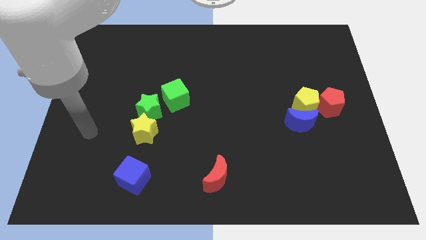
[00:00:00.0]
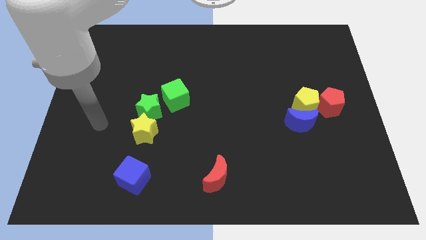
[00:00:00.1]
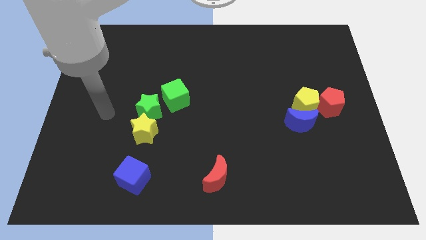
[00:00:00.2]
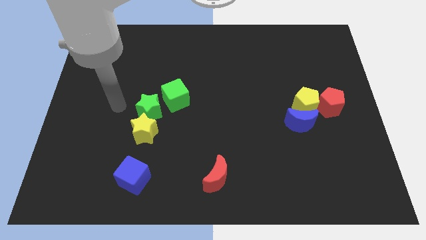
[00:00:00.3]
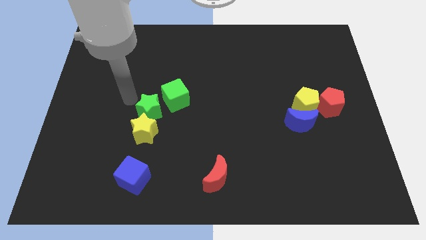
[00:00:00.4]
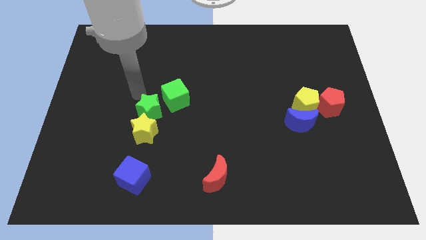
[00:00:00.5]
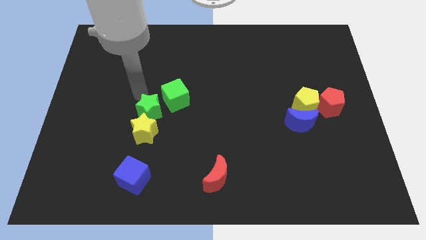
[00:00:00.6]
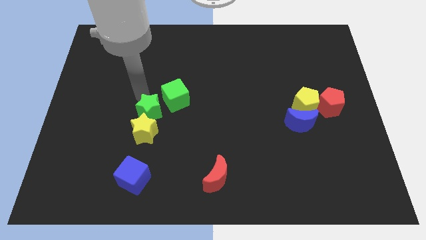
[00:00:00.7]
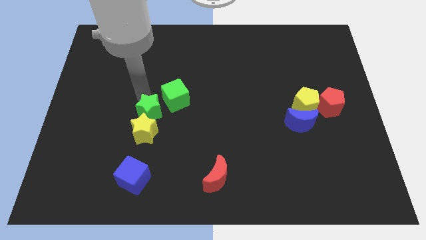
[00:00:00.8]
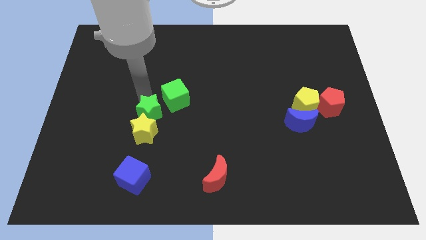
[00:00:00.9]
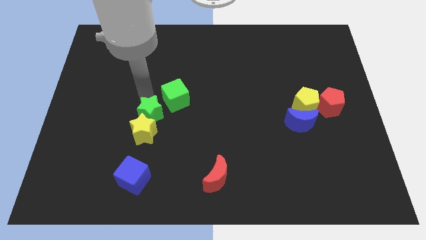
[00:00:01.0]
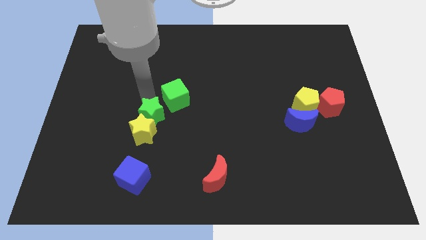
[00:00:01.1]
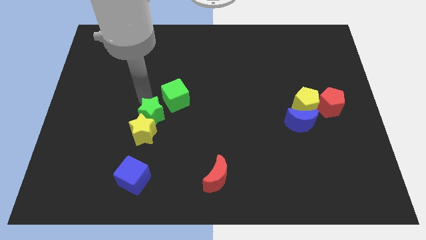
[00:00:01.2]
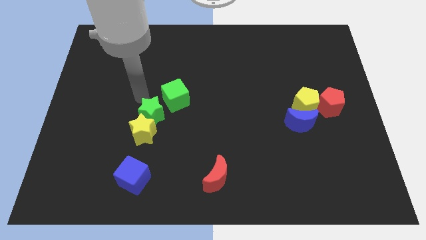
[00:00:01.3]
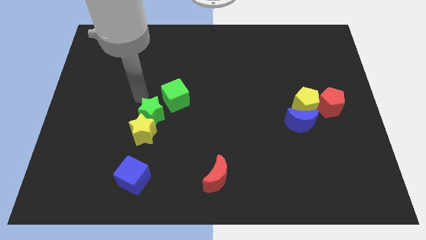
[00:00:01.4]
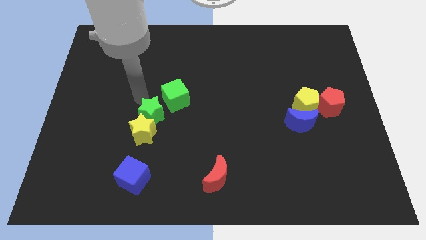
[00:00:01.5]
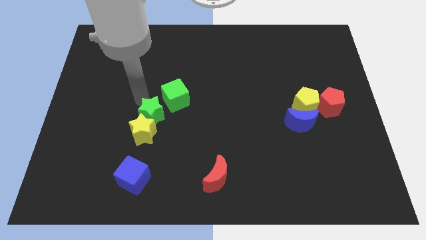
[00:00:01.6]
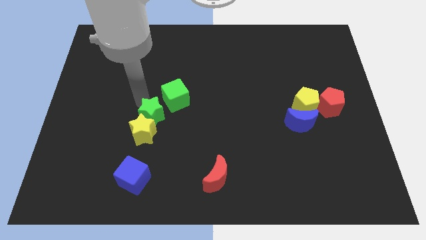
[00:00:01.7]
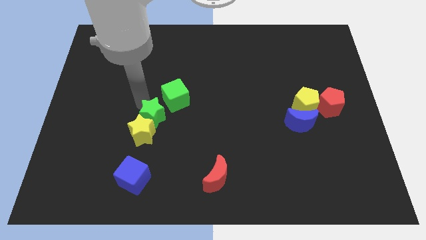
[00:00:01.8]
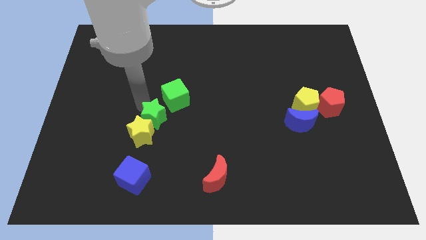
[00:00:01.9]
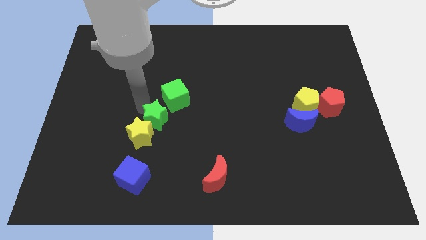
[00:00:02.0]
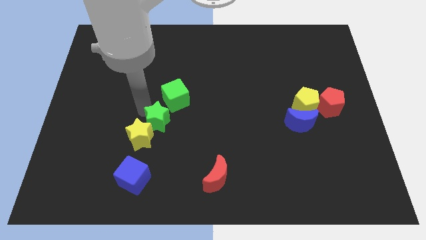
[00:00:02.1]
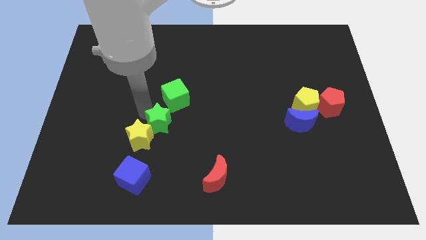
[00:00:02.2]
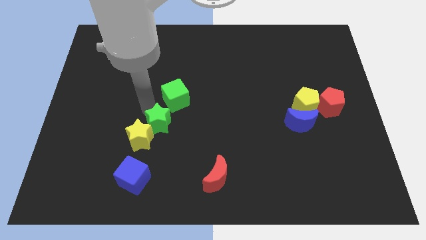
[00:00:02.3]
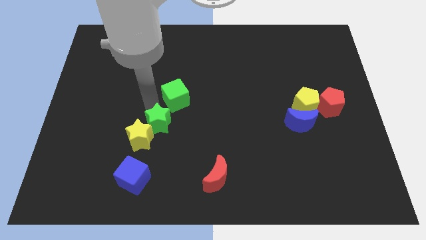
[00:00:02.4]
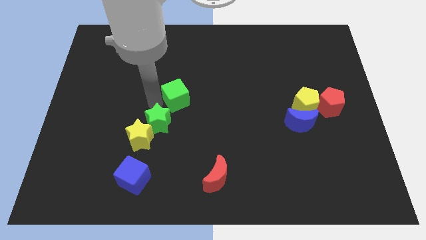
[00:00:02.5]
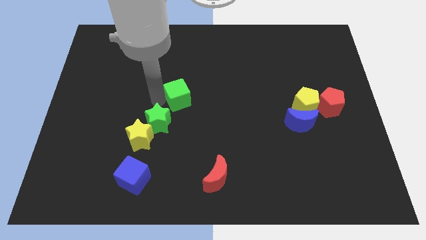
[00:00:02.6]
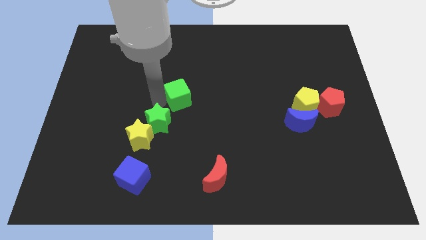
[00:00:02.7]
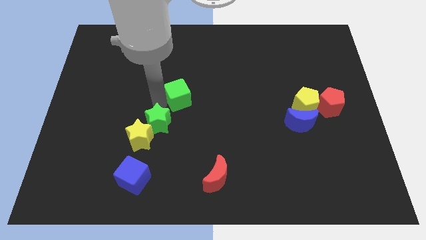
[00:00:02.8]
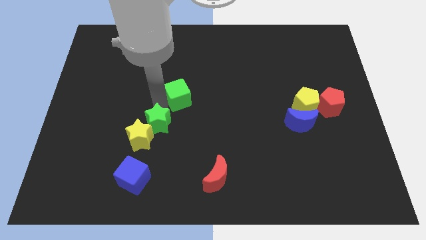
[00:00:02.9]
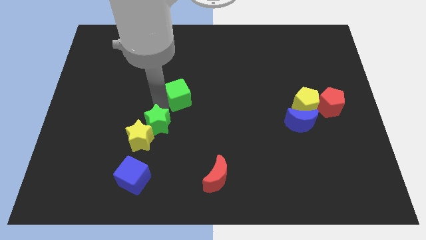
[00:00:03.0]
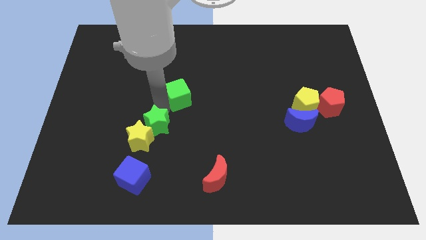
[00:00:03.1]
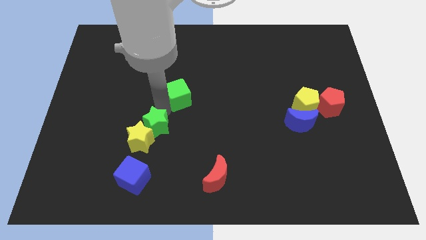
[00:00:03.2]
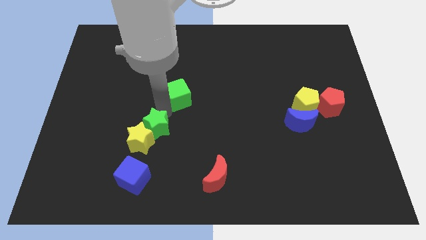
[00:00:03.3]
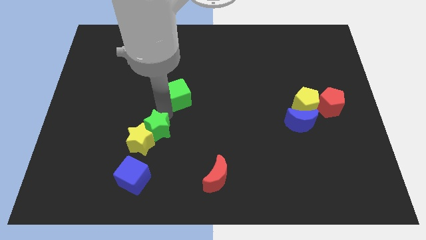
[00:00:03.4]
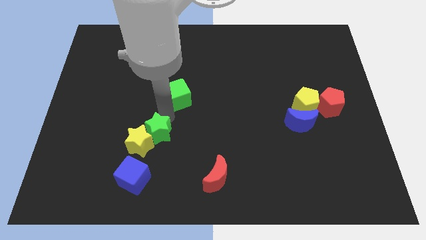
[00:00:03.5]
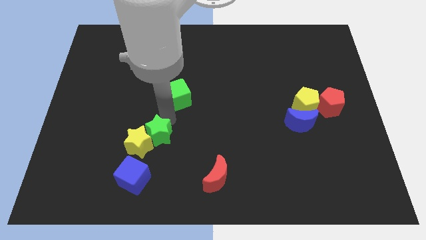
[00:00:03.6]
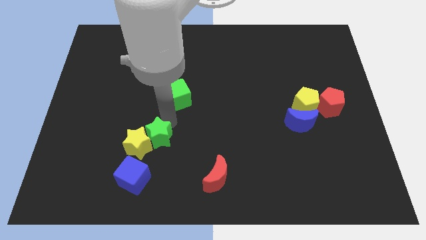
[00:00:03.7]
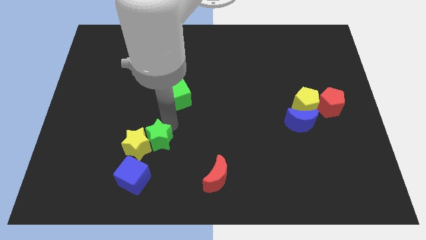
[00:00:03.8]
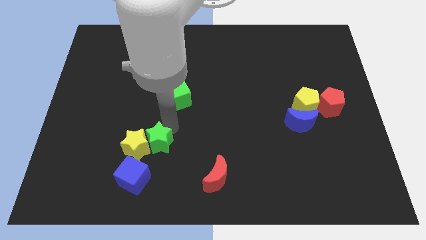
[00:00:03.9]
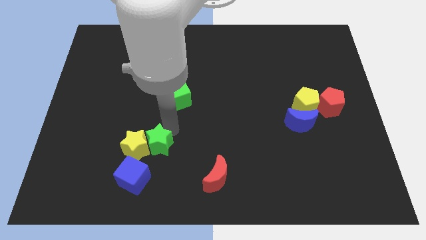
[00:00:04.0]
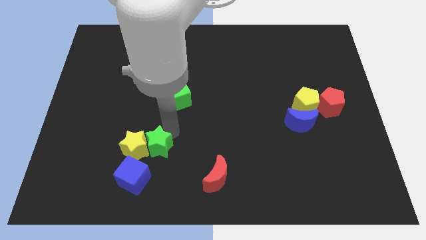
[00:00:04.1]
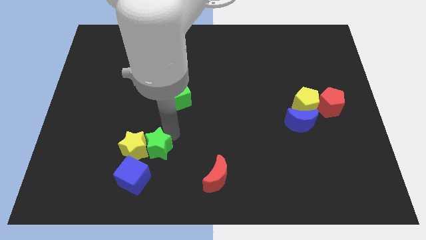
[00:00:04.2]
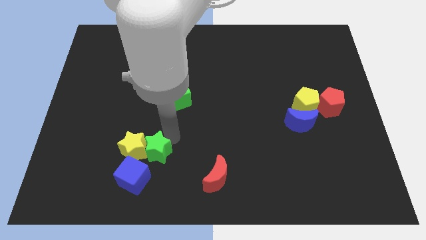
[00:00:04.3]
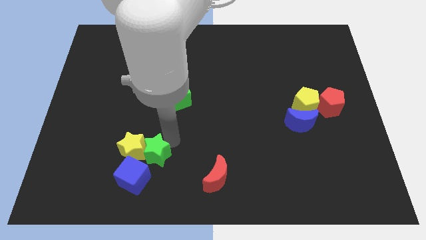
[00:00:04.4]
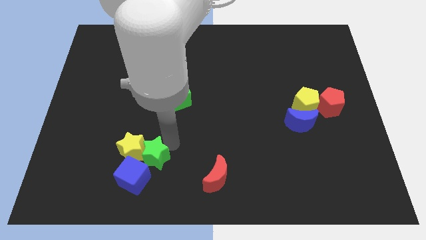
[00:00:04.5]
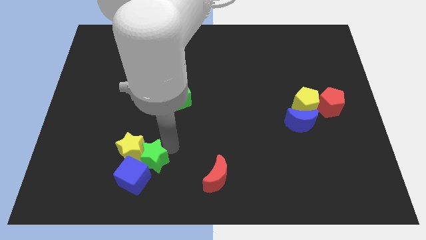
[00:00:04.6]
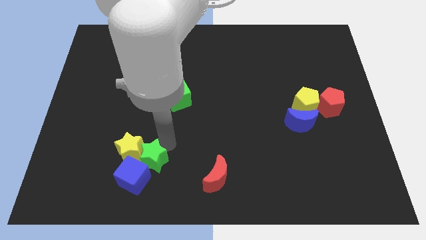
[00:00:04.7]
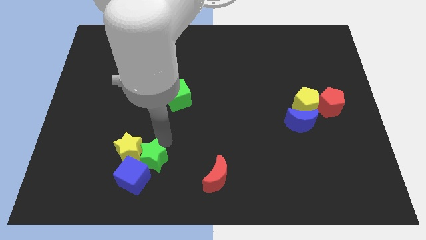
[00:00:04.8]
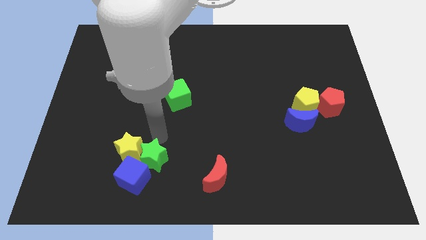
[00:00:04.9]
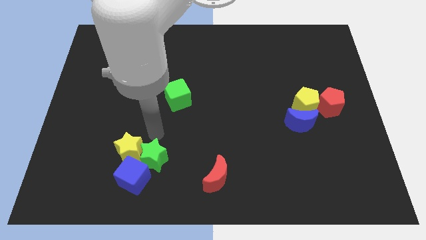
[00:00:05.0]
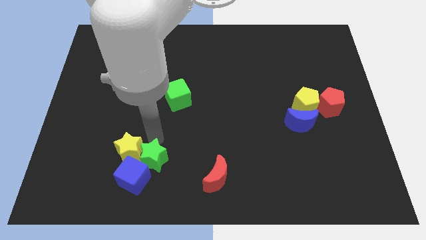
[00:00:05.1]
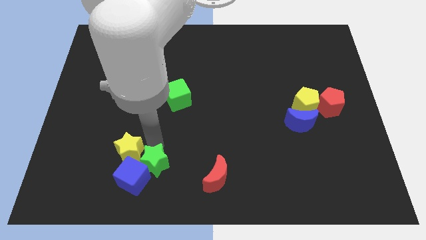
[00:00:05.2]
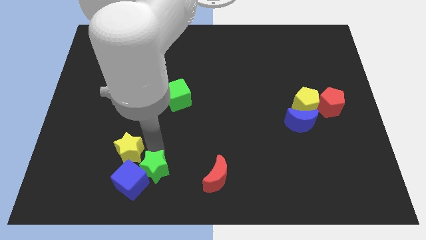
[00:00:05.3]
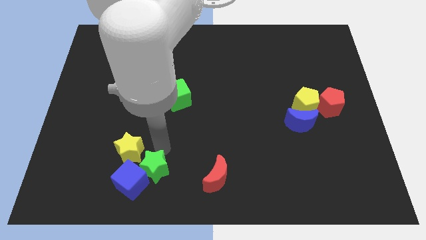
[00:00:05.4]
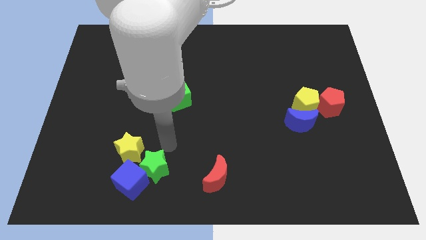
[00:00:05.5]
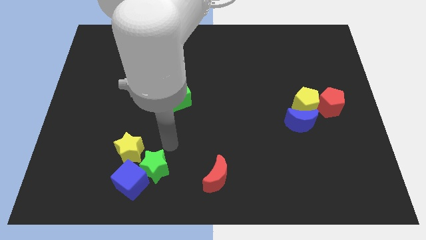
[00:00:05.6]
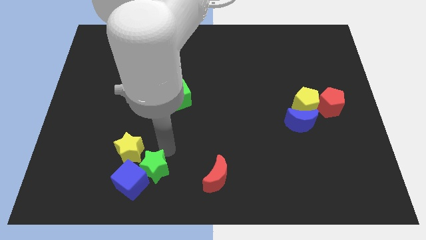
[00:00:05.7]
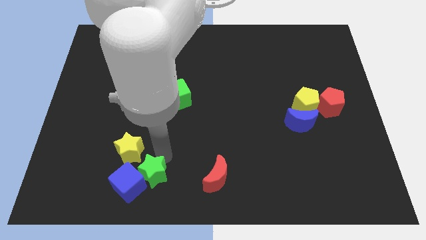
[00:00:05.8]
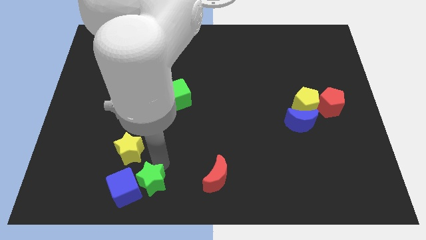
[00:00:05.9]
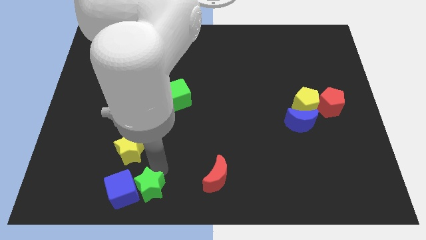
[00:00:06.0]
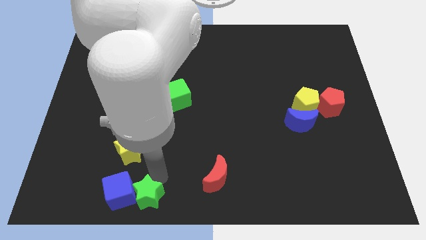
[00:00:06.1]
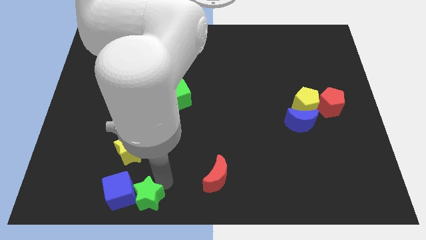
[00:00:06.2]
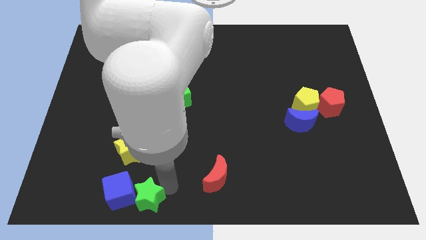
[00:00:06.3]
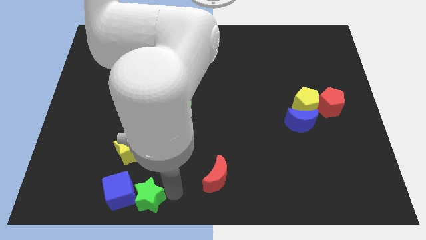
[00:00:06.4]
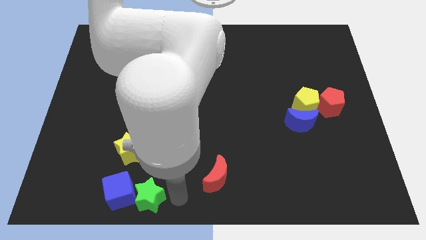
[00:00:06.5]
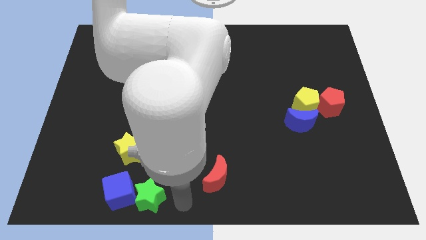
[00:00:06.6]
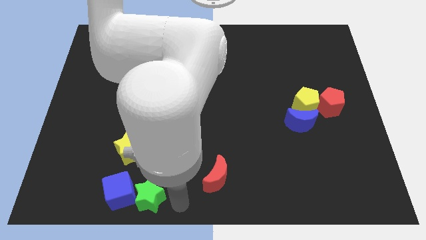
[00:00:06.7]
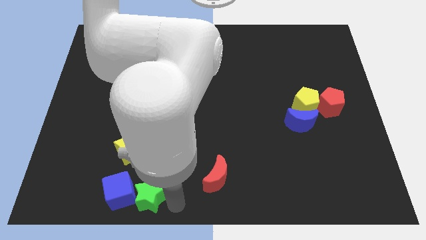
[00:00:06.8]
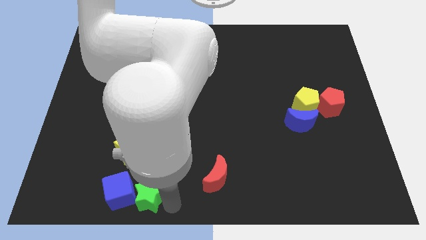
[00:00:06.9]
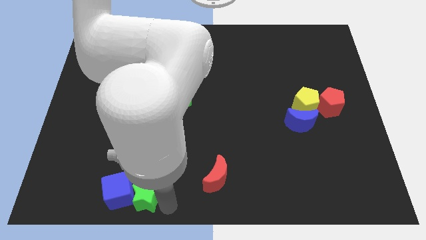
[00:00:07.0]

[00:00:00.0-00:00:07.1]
slide the green star to the bottom of the yellow star
